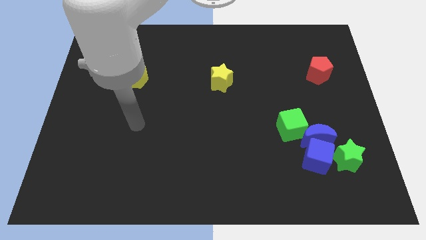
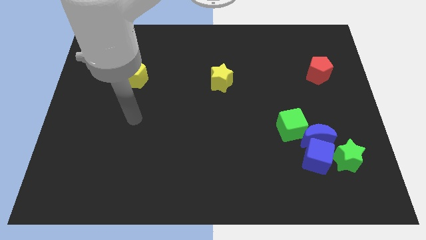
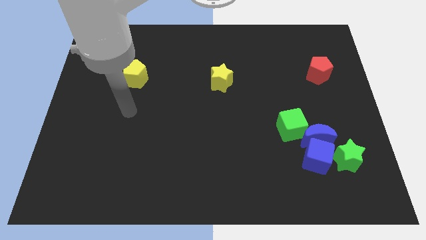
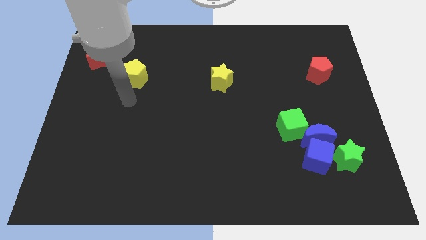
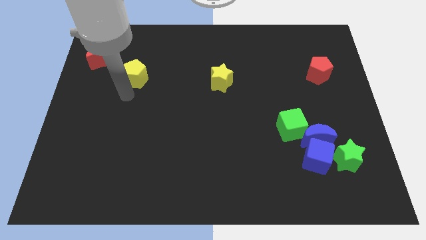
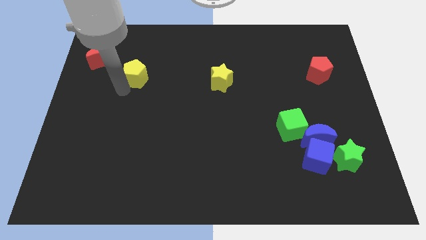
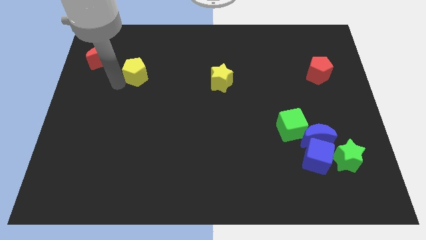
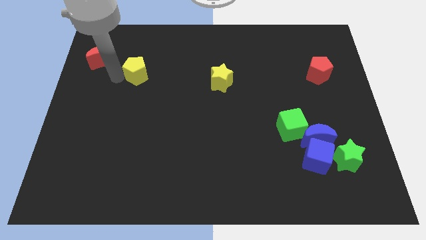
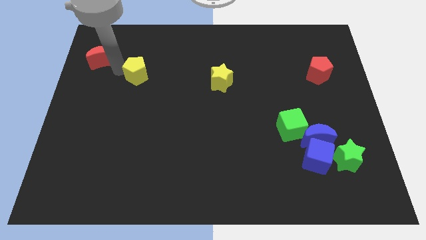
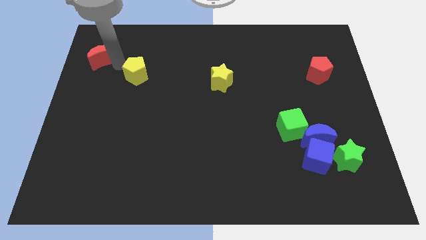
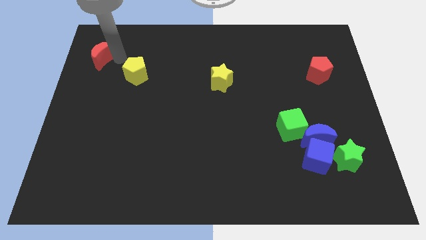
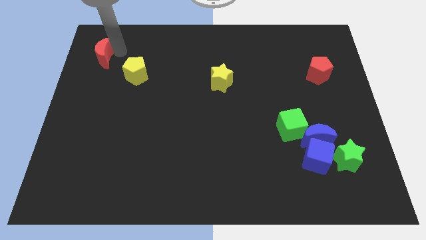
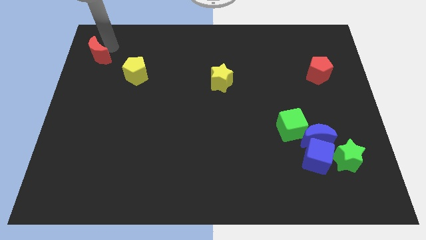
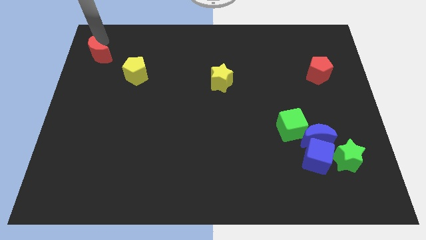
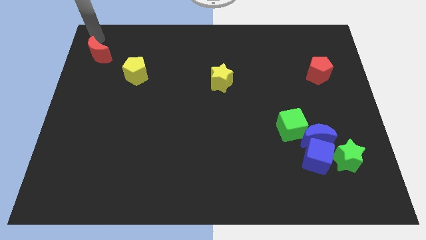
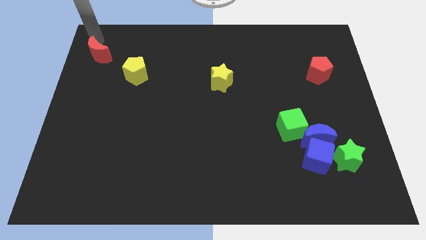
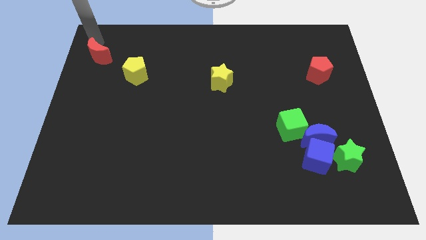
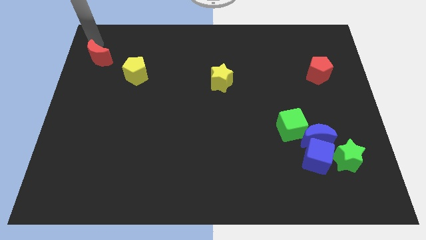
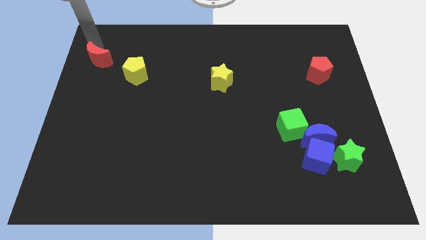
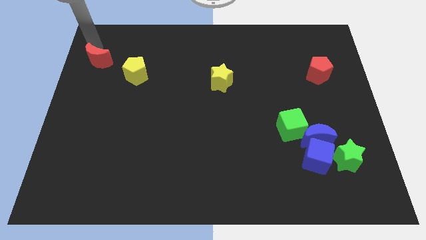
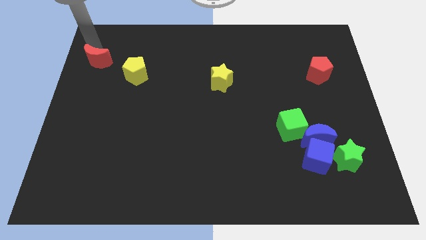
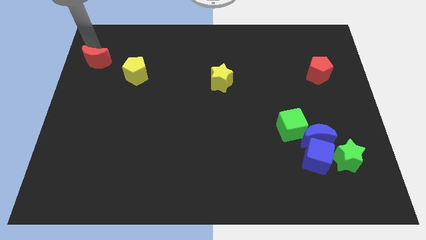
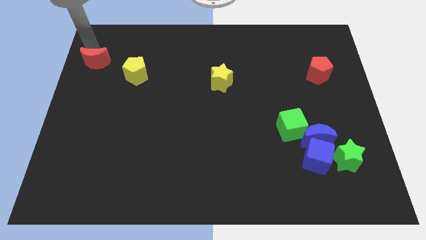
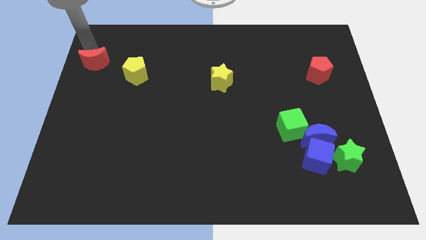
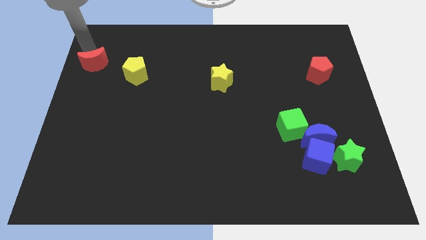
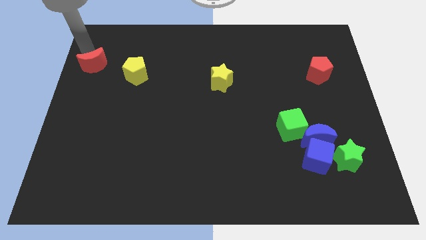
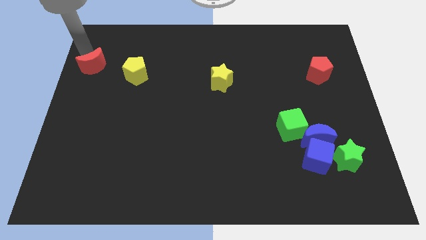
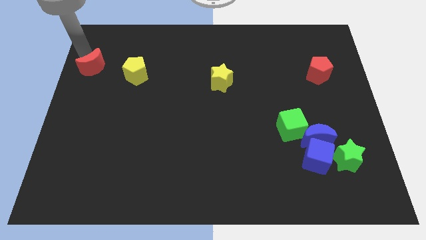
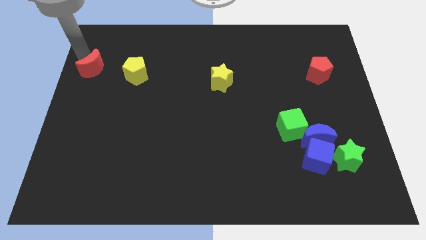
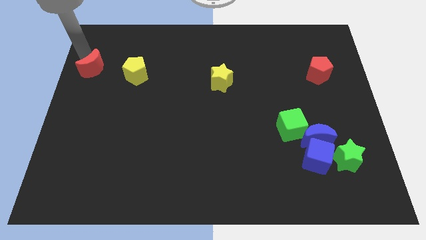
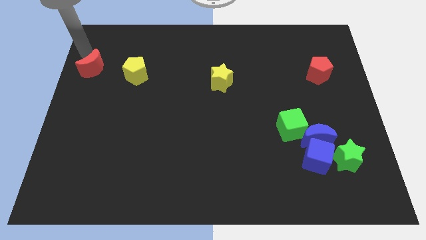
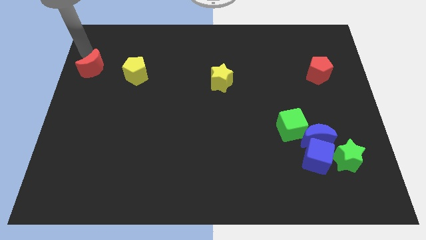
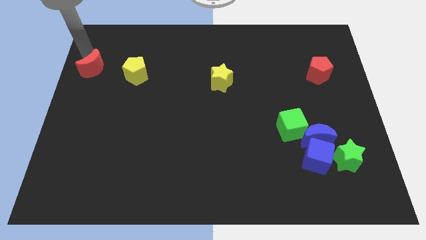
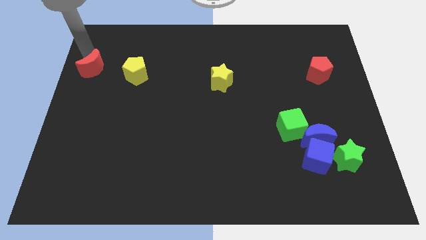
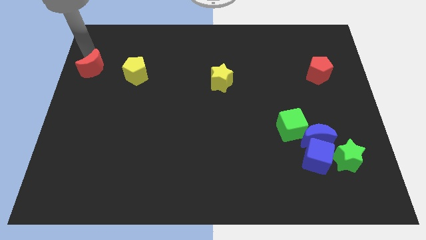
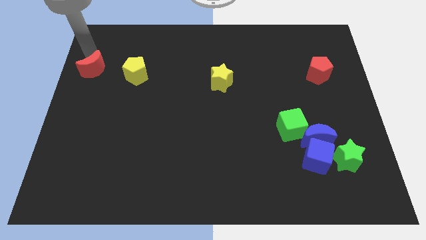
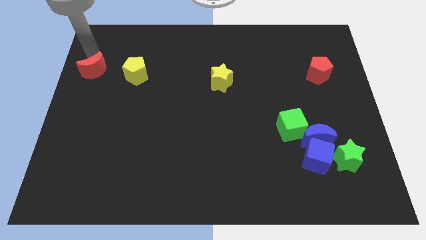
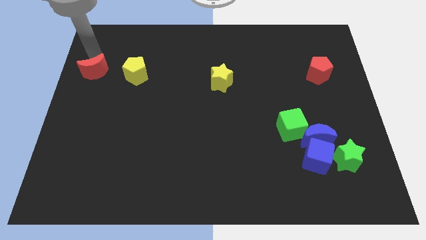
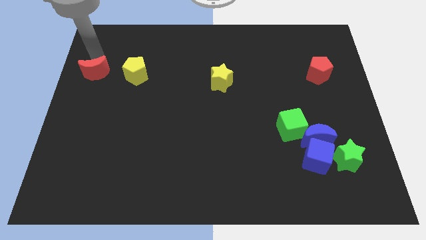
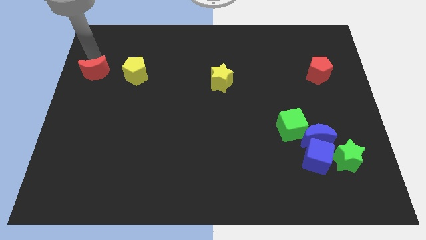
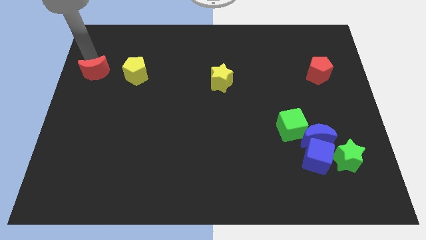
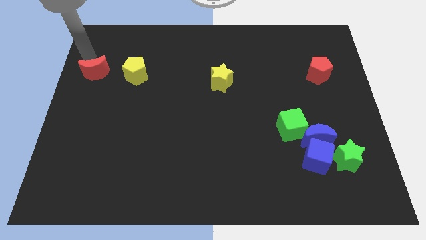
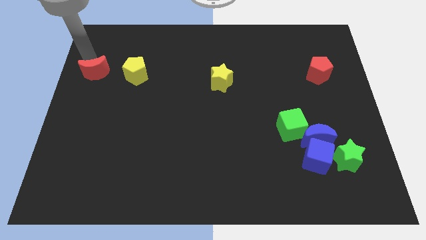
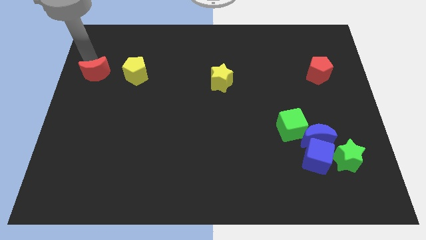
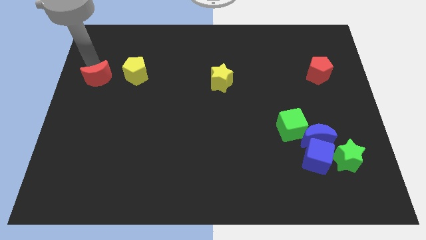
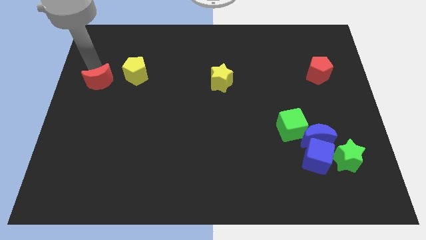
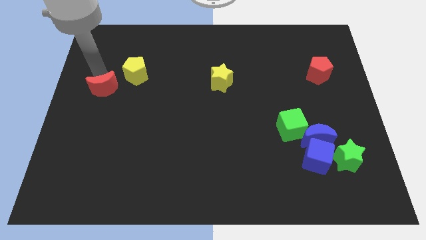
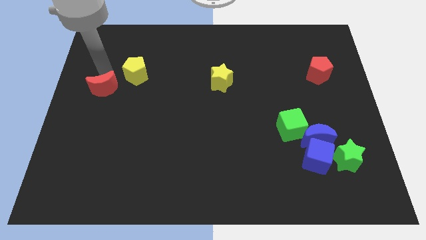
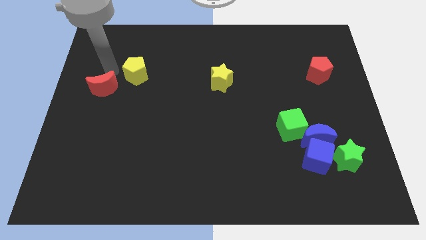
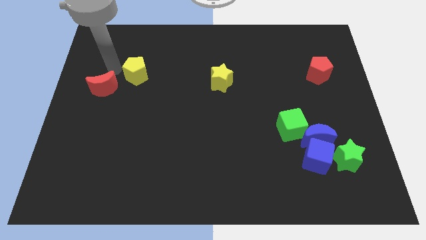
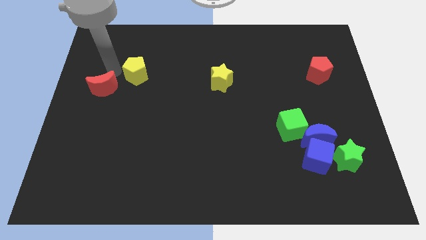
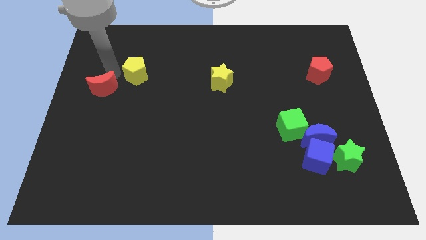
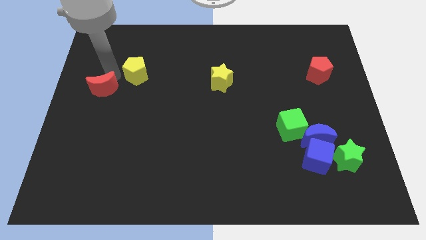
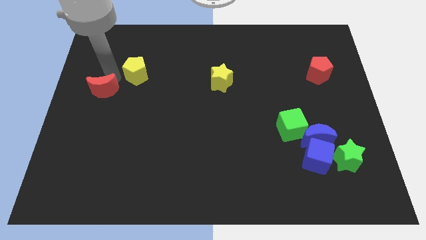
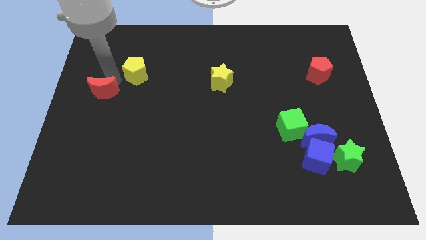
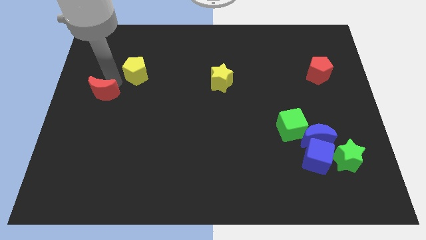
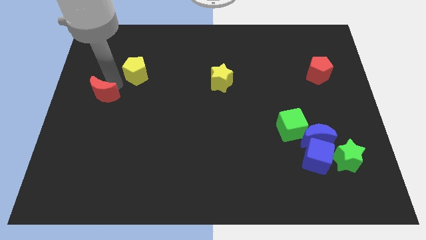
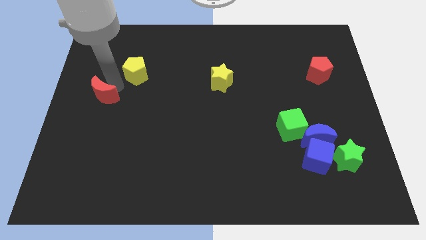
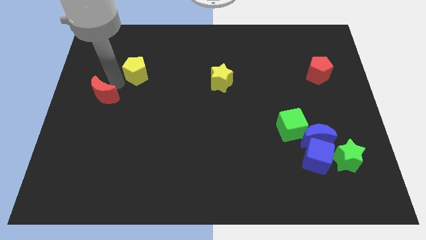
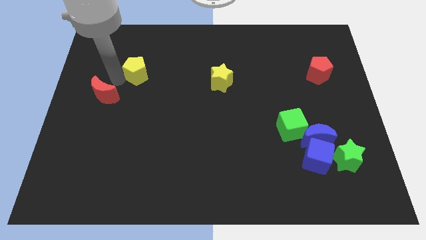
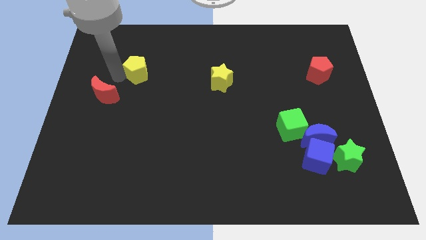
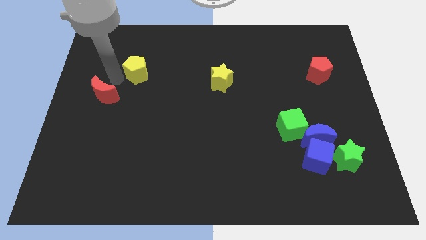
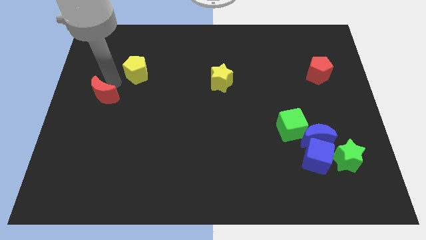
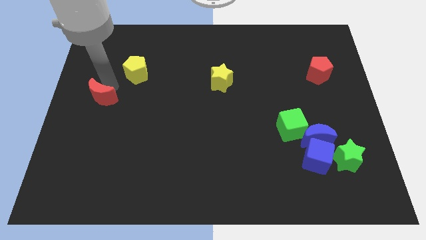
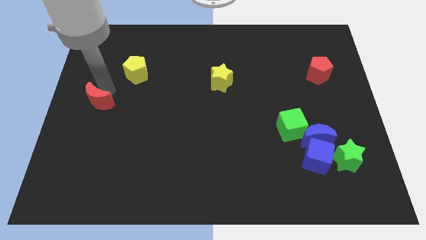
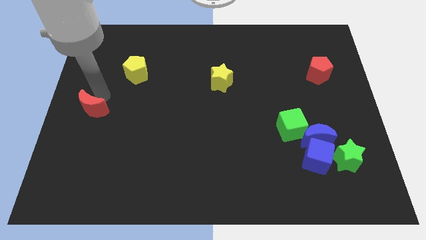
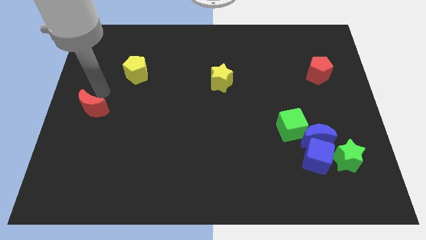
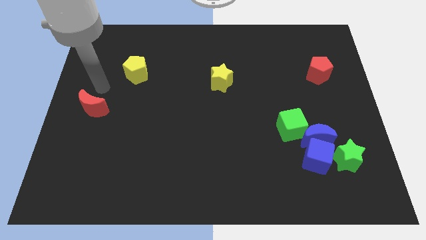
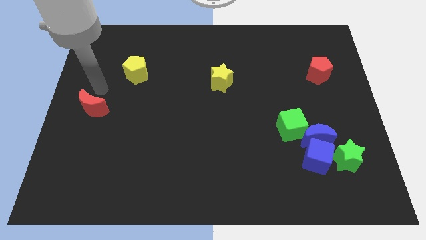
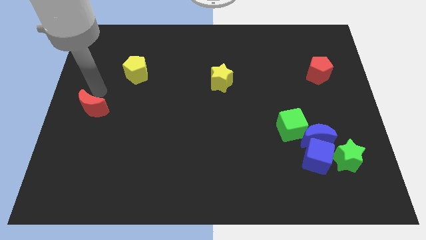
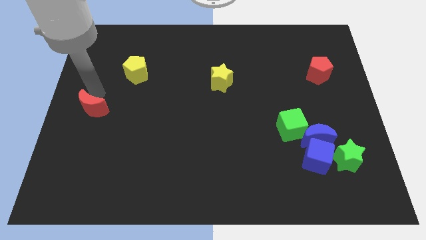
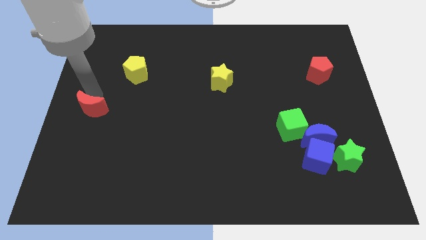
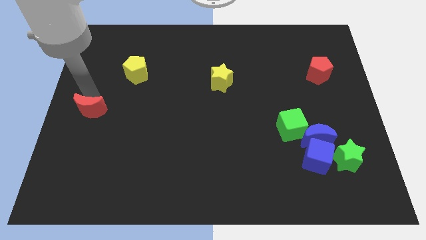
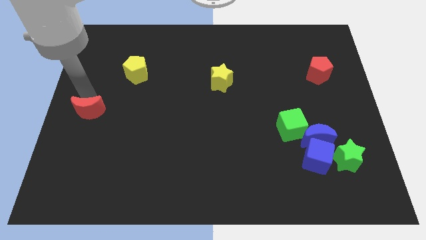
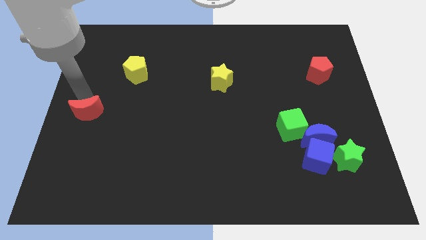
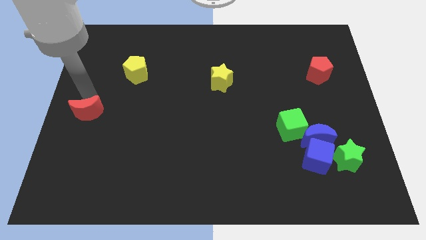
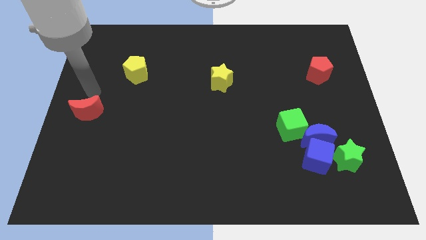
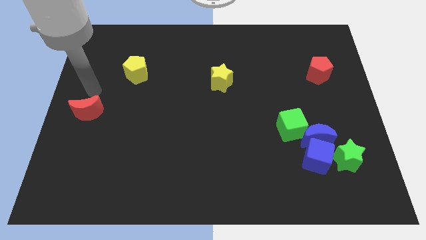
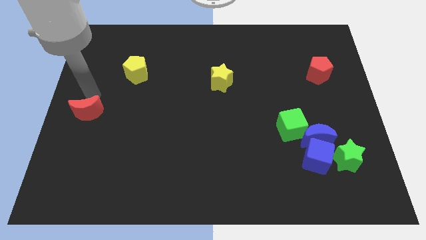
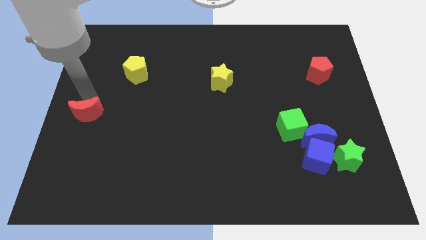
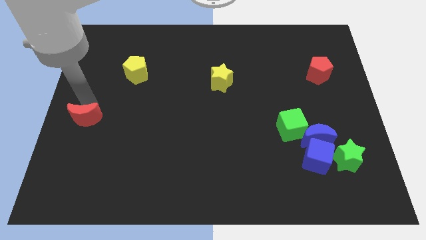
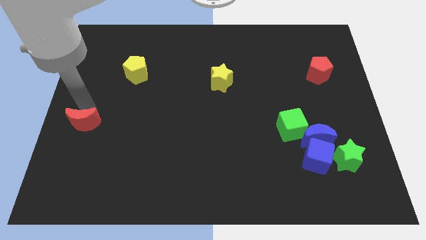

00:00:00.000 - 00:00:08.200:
move the red moon down

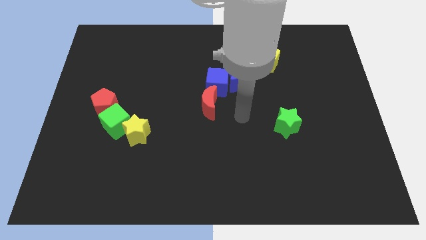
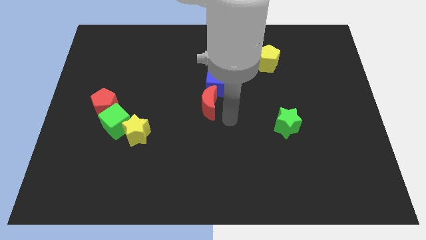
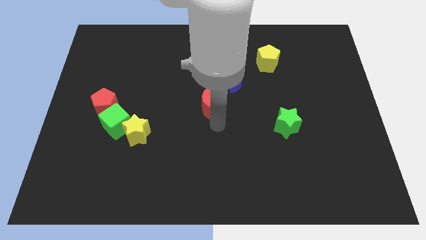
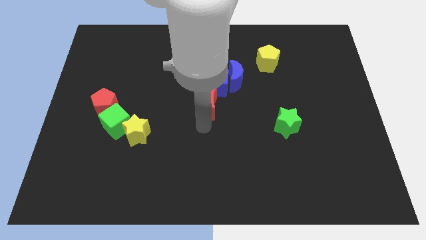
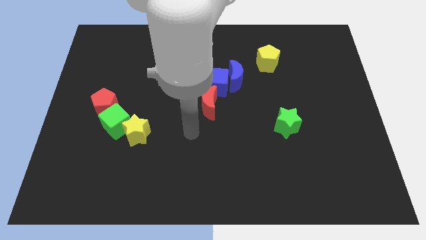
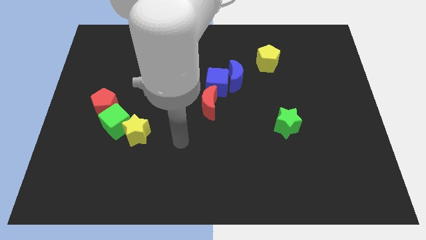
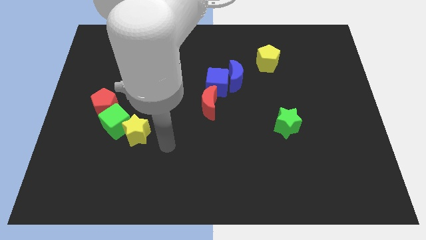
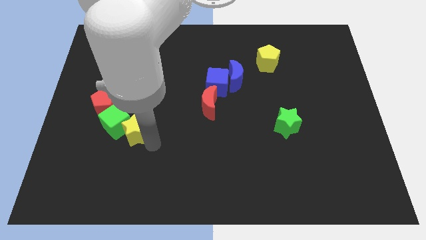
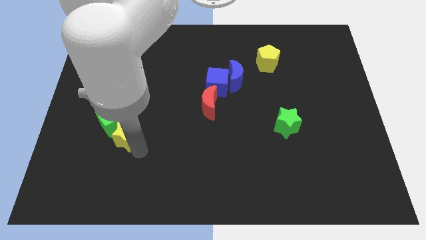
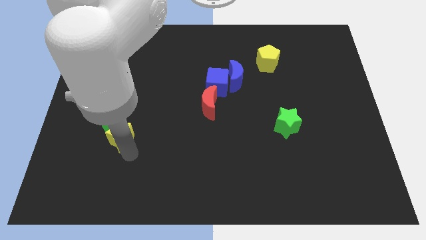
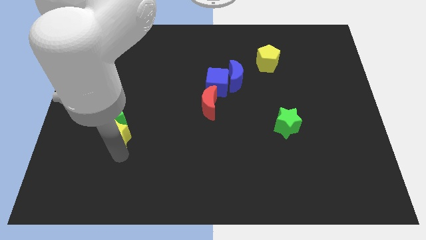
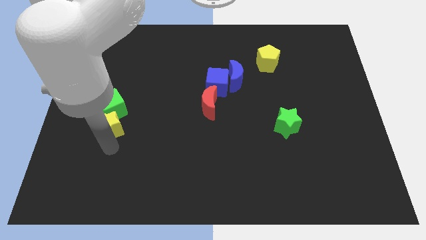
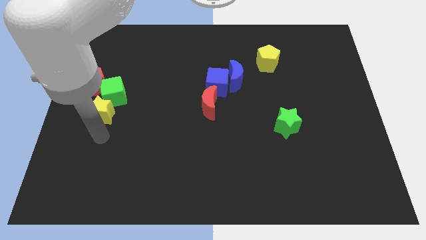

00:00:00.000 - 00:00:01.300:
slide the green cube slightly up
